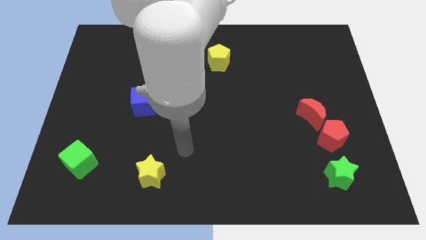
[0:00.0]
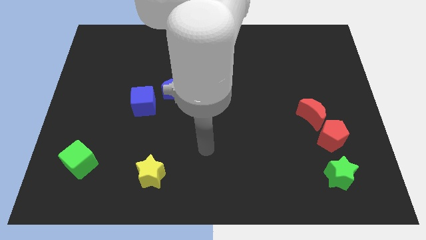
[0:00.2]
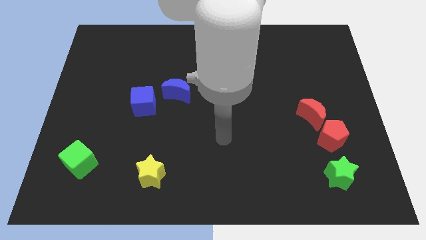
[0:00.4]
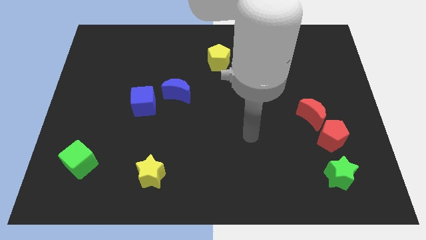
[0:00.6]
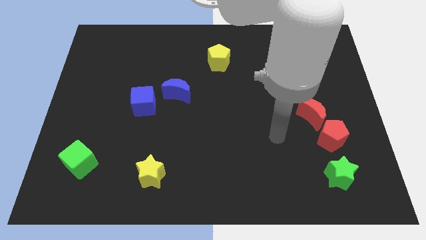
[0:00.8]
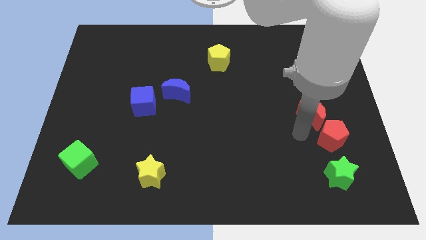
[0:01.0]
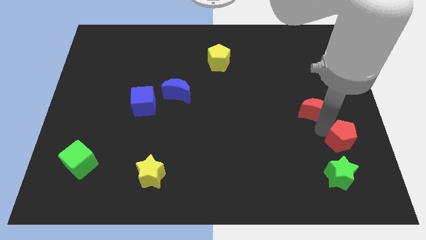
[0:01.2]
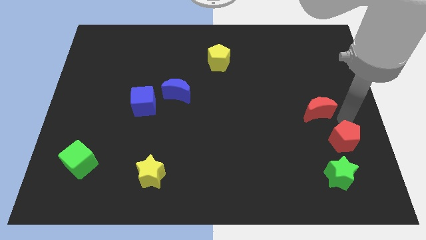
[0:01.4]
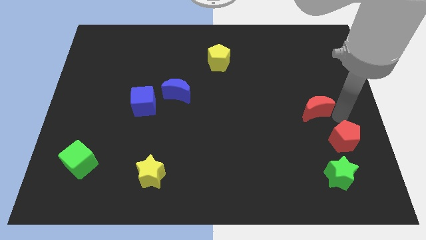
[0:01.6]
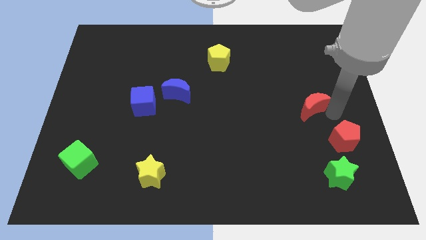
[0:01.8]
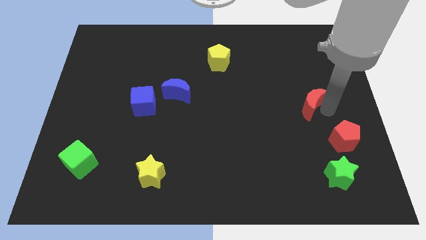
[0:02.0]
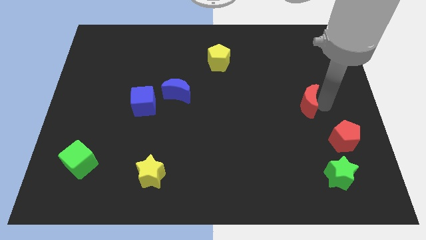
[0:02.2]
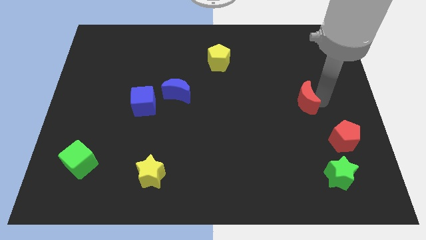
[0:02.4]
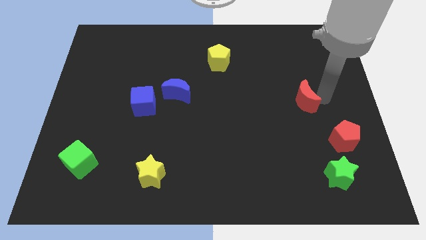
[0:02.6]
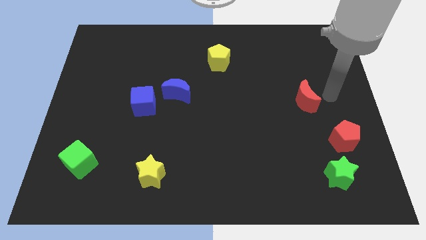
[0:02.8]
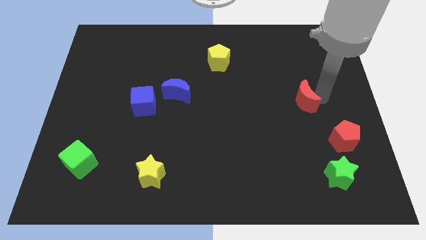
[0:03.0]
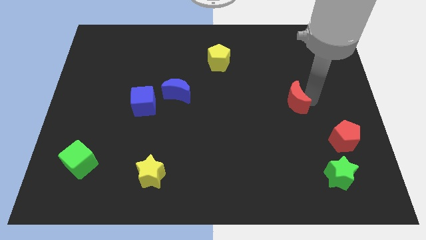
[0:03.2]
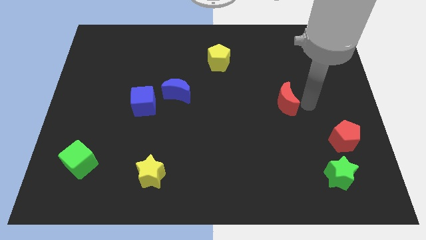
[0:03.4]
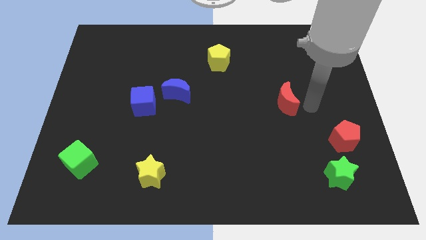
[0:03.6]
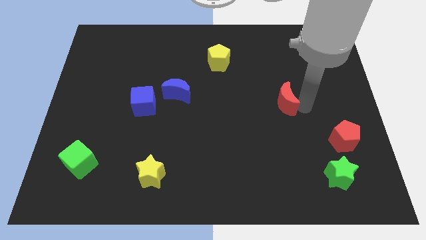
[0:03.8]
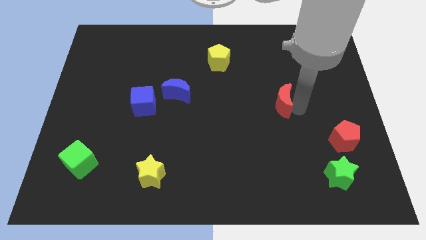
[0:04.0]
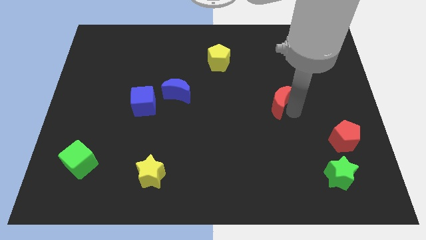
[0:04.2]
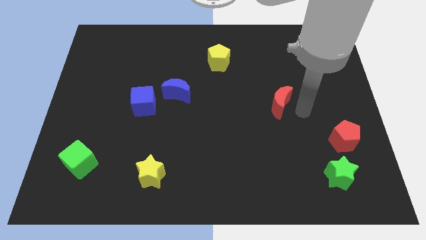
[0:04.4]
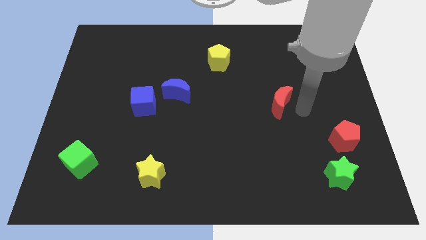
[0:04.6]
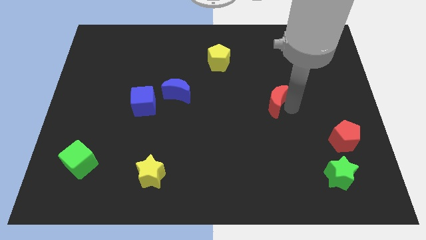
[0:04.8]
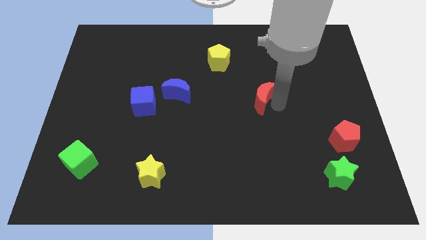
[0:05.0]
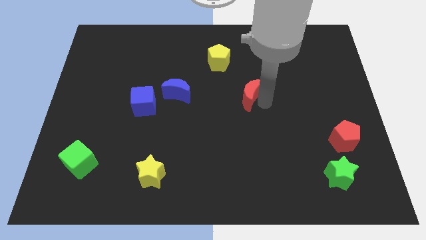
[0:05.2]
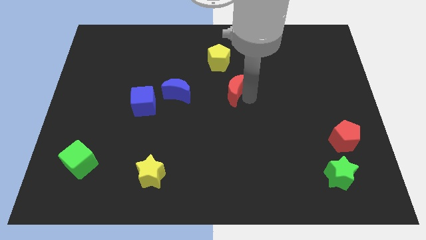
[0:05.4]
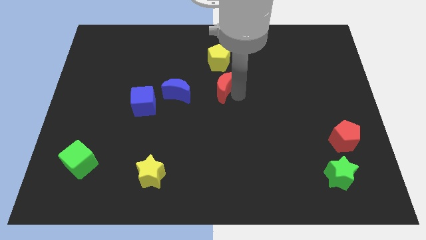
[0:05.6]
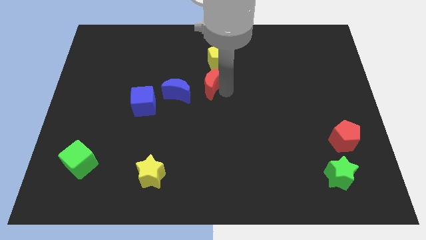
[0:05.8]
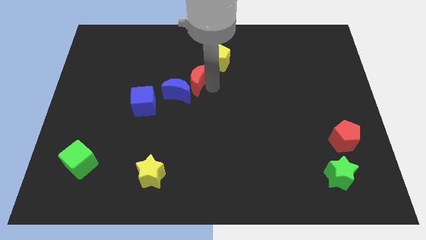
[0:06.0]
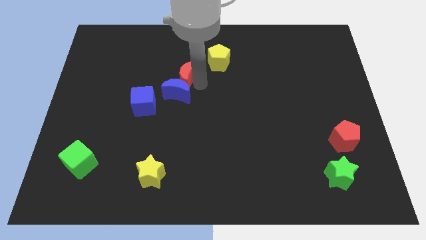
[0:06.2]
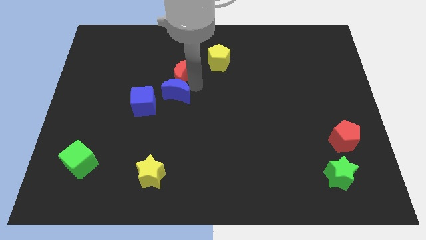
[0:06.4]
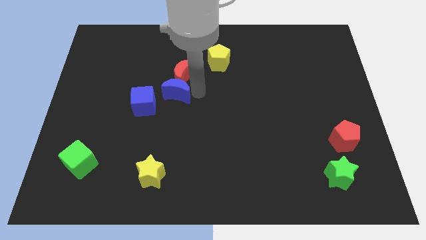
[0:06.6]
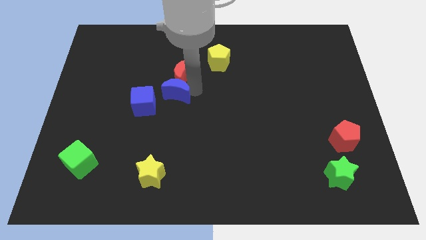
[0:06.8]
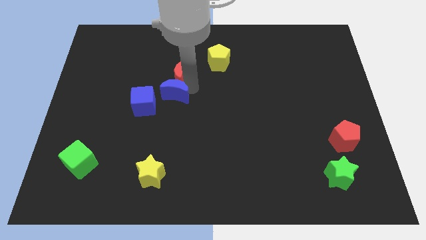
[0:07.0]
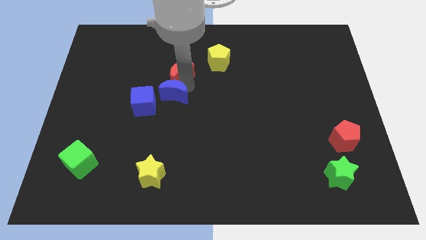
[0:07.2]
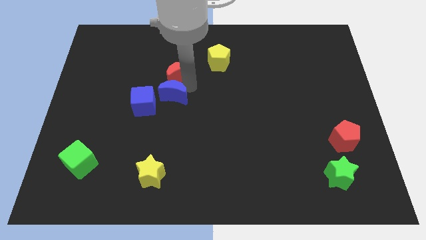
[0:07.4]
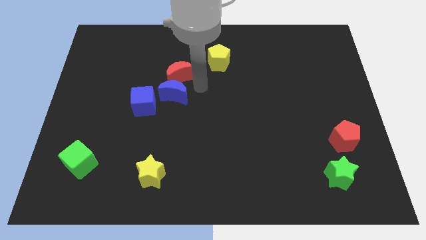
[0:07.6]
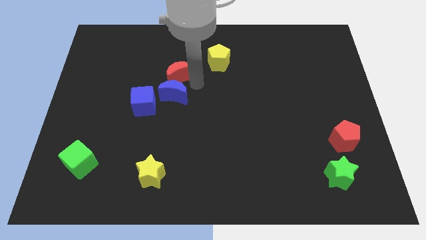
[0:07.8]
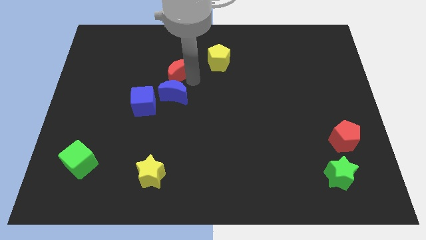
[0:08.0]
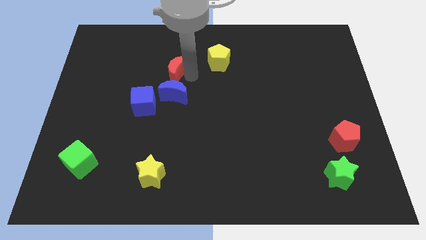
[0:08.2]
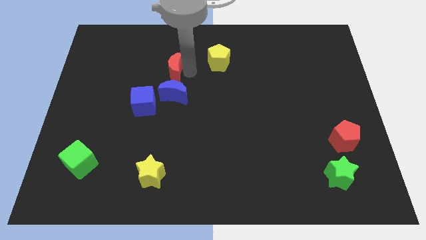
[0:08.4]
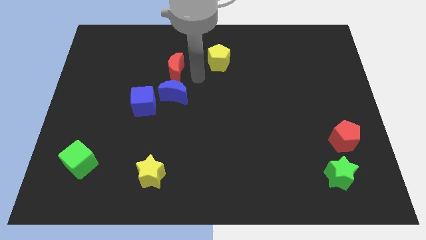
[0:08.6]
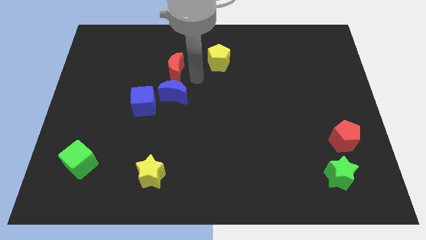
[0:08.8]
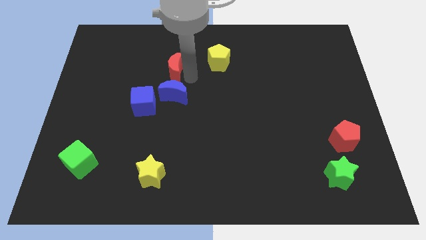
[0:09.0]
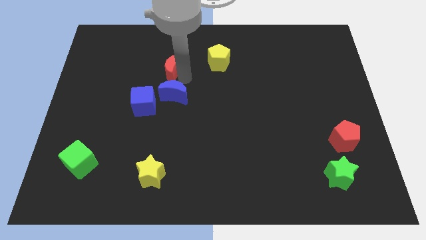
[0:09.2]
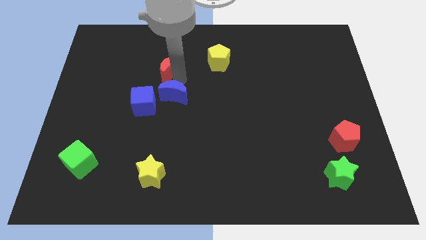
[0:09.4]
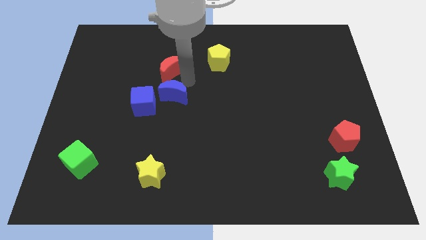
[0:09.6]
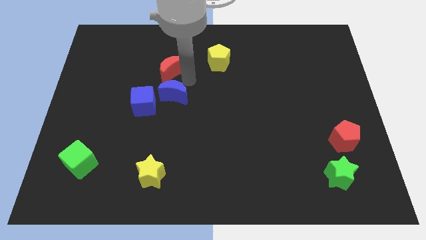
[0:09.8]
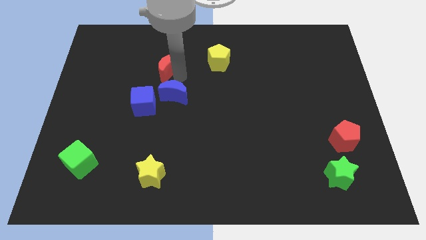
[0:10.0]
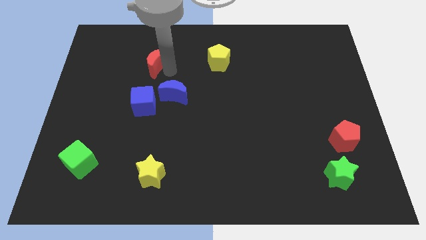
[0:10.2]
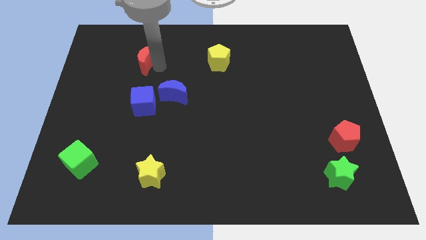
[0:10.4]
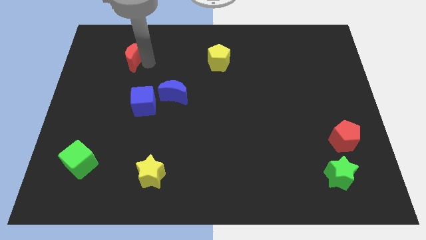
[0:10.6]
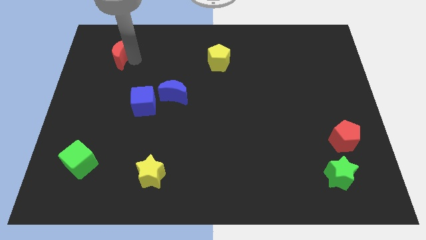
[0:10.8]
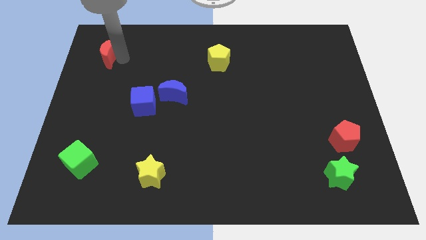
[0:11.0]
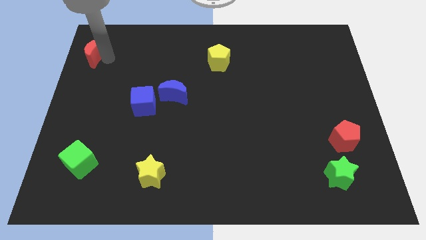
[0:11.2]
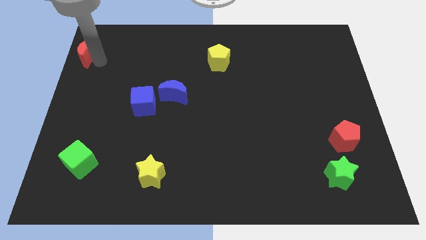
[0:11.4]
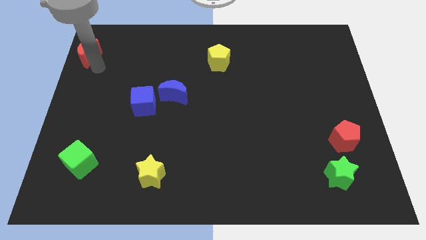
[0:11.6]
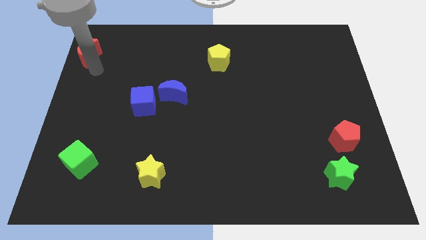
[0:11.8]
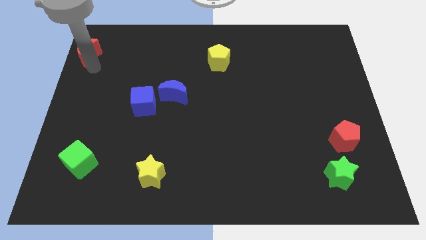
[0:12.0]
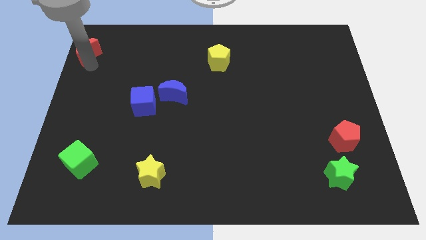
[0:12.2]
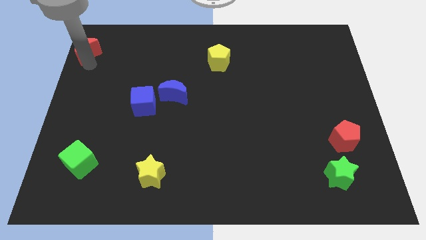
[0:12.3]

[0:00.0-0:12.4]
push the red moon to the top left corner
